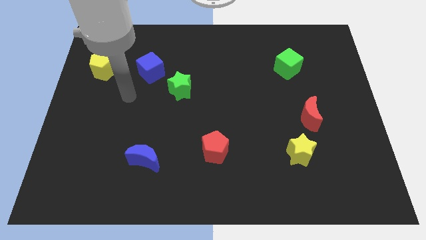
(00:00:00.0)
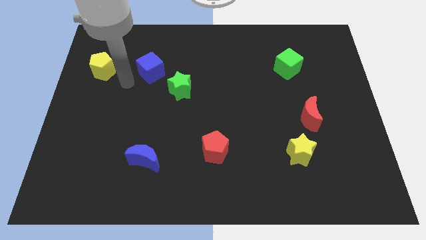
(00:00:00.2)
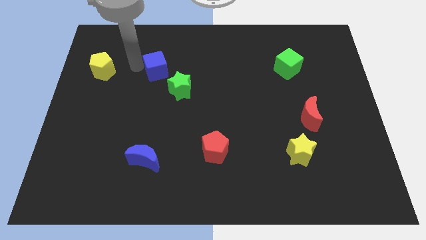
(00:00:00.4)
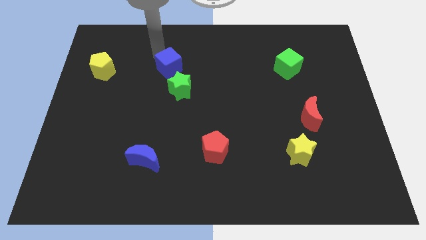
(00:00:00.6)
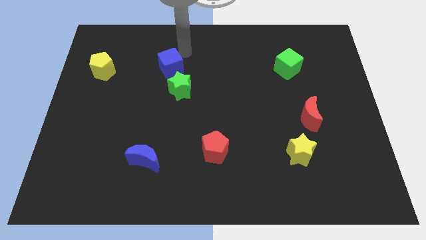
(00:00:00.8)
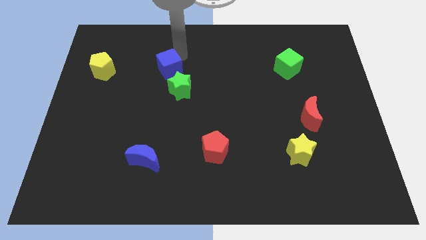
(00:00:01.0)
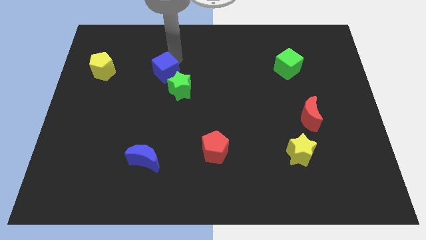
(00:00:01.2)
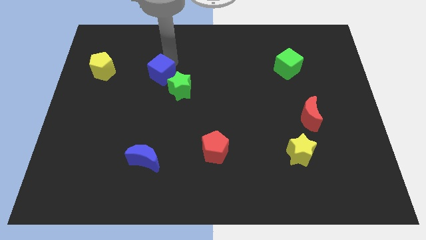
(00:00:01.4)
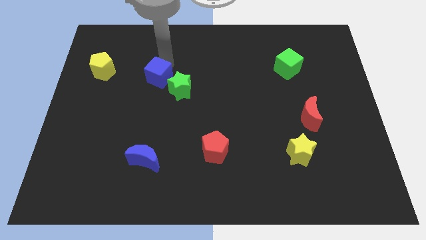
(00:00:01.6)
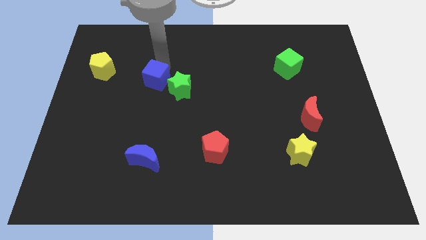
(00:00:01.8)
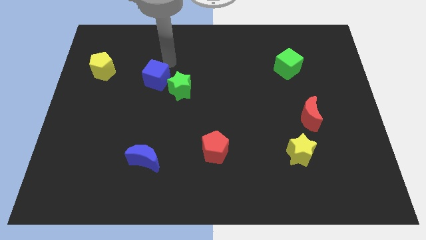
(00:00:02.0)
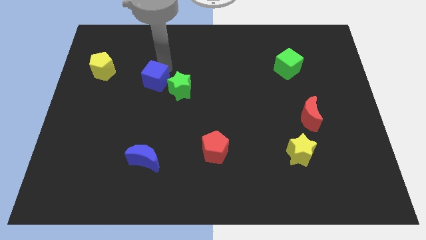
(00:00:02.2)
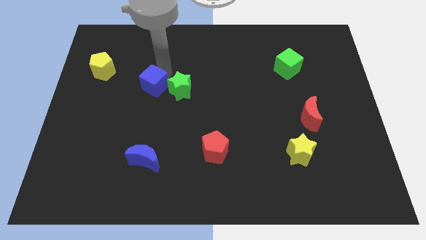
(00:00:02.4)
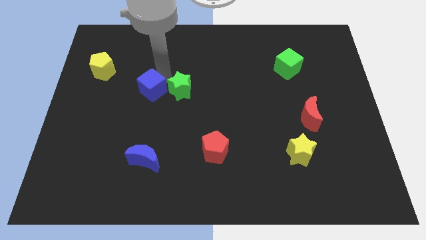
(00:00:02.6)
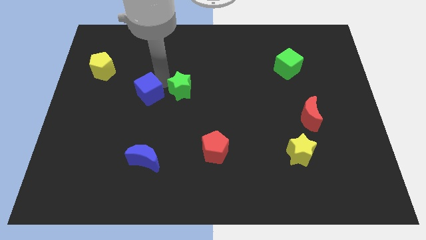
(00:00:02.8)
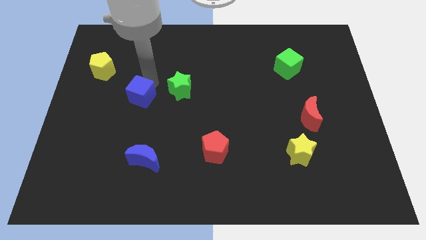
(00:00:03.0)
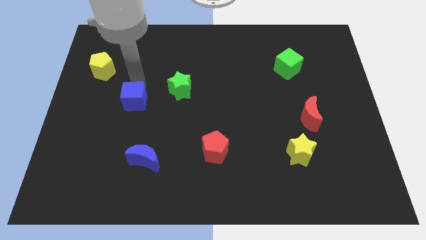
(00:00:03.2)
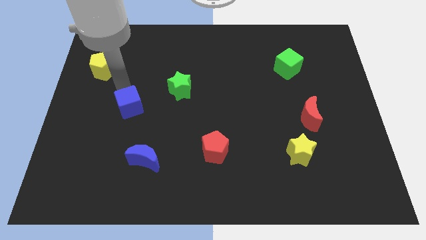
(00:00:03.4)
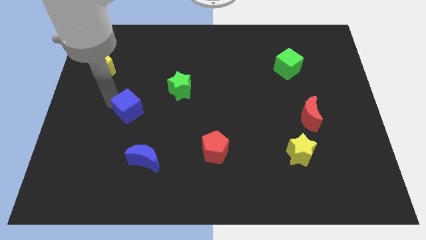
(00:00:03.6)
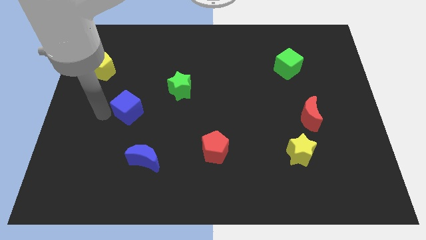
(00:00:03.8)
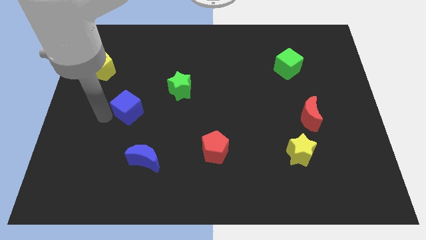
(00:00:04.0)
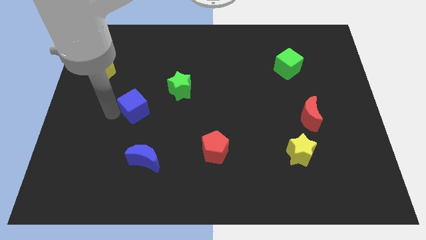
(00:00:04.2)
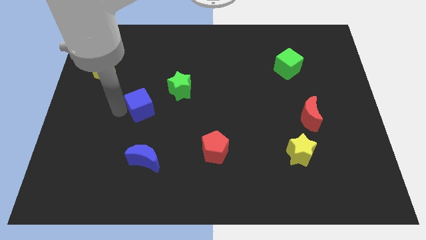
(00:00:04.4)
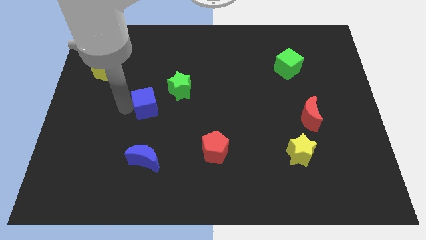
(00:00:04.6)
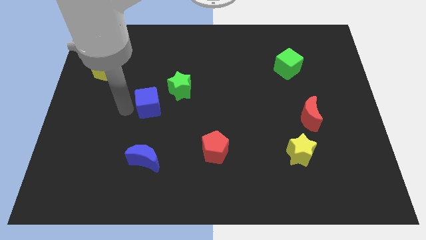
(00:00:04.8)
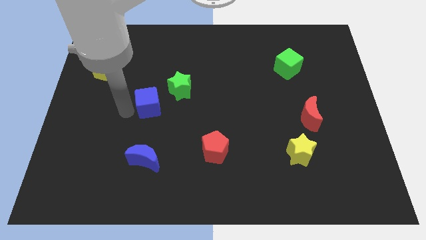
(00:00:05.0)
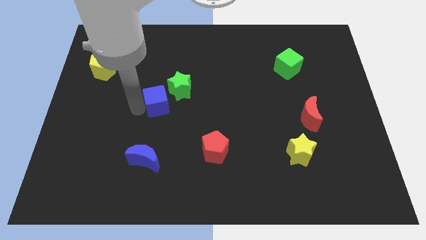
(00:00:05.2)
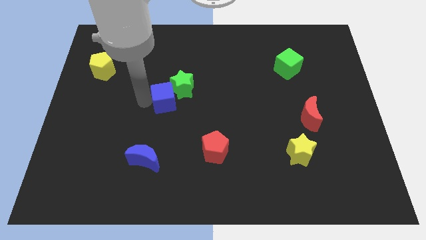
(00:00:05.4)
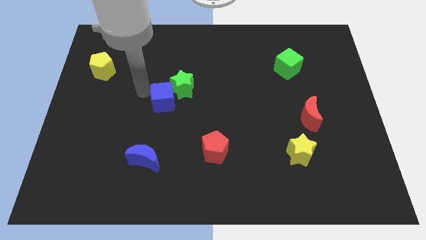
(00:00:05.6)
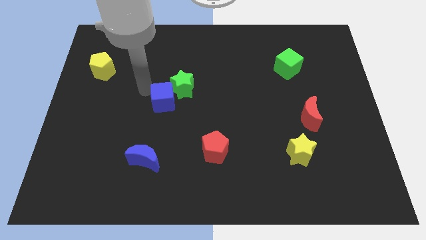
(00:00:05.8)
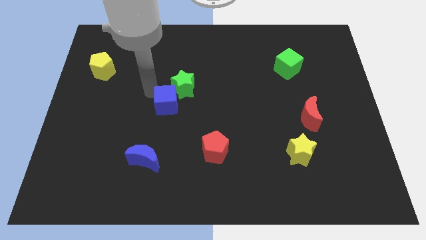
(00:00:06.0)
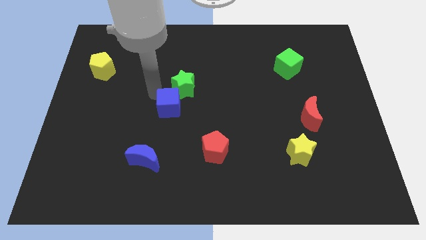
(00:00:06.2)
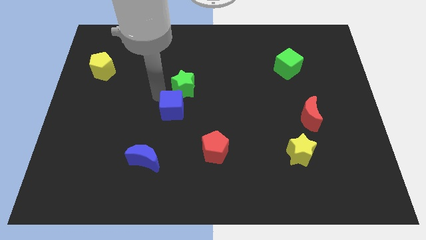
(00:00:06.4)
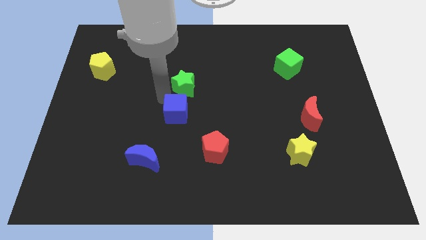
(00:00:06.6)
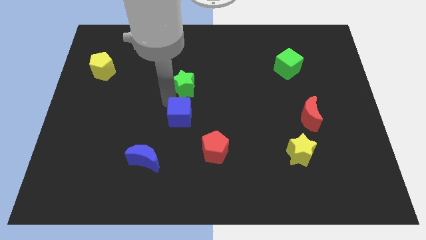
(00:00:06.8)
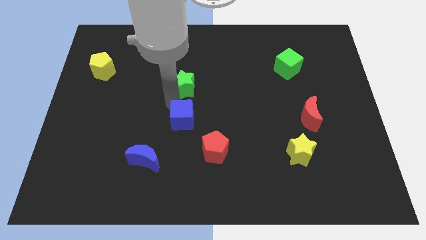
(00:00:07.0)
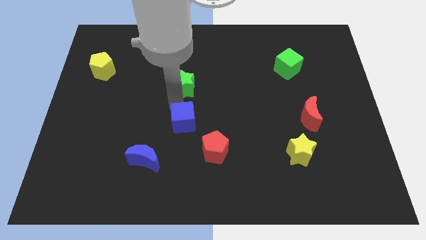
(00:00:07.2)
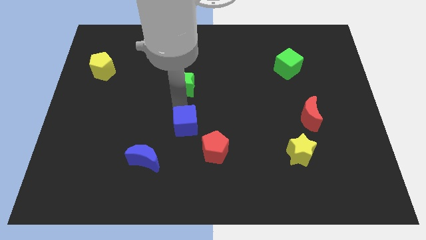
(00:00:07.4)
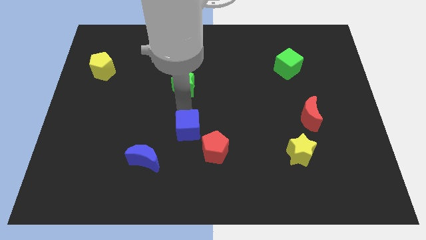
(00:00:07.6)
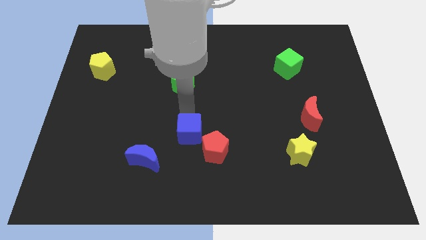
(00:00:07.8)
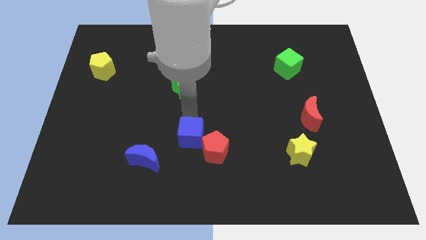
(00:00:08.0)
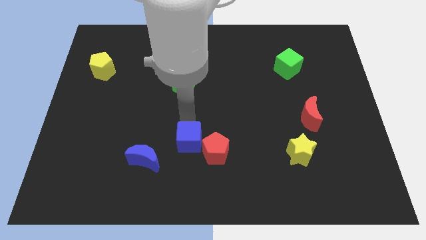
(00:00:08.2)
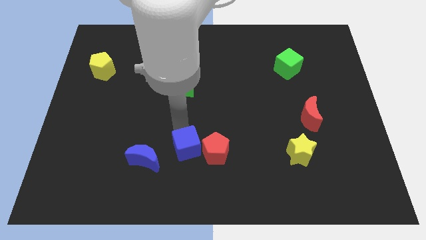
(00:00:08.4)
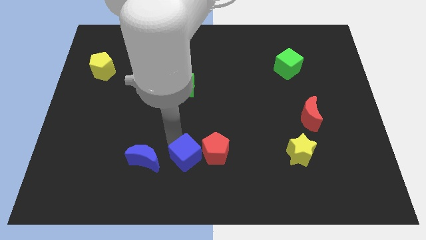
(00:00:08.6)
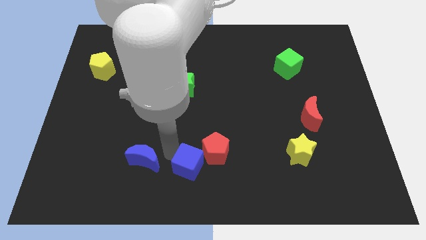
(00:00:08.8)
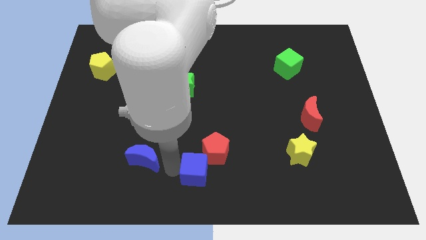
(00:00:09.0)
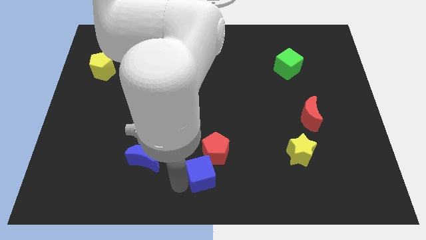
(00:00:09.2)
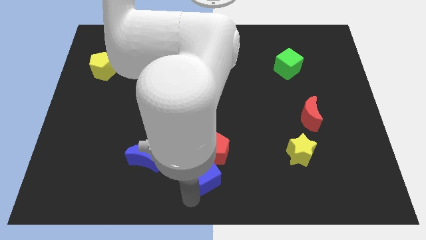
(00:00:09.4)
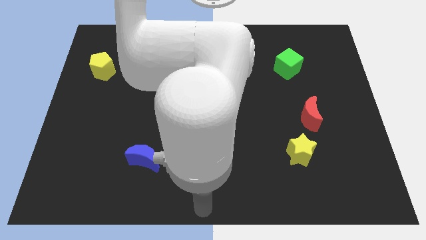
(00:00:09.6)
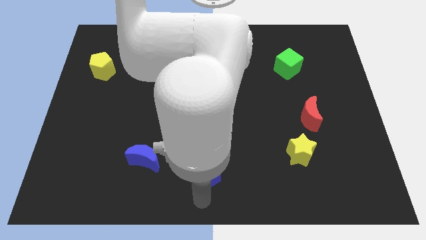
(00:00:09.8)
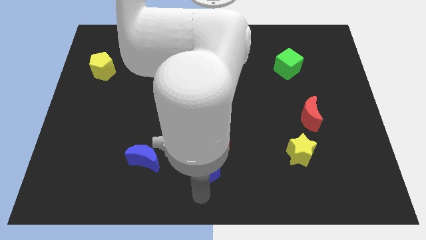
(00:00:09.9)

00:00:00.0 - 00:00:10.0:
put the blue cube next to the red pentagon

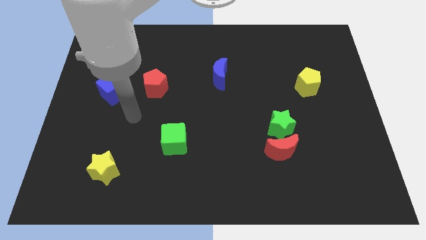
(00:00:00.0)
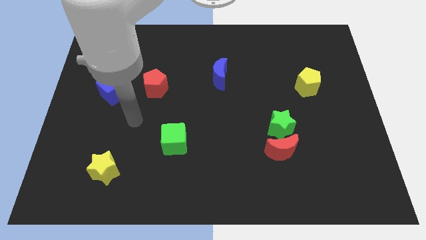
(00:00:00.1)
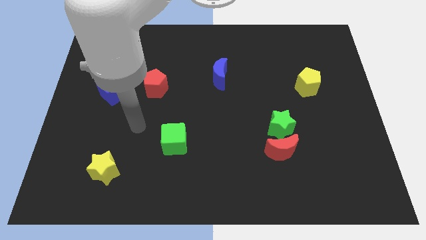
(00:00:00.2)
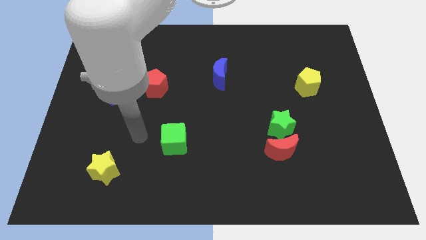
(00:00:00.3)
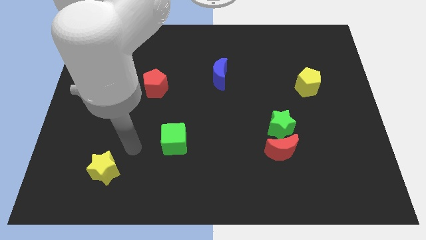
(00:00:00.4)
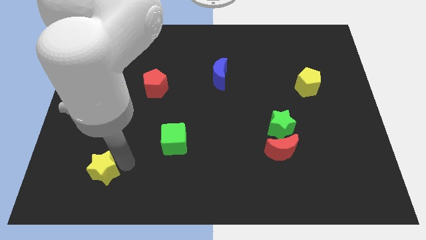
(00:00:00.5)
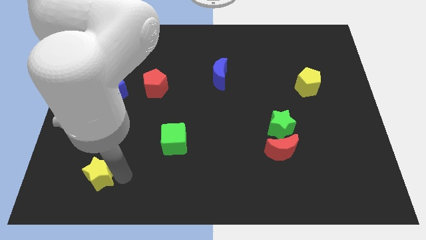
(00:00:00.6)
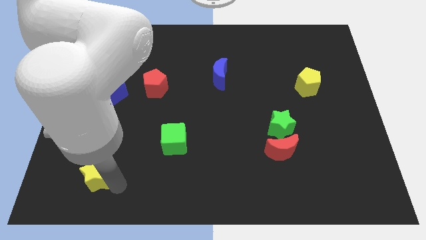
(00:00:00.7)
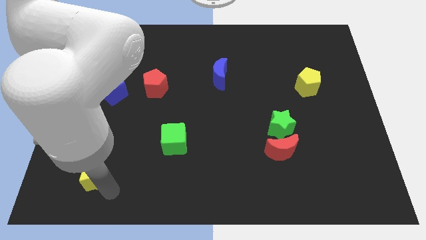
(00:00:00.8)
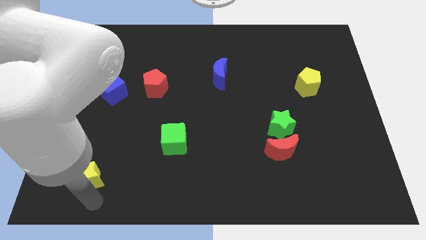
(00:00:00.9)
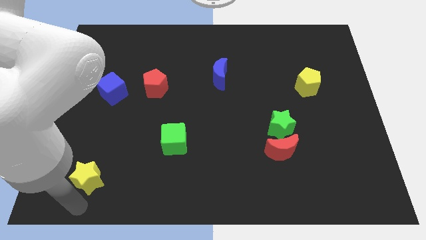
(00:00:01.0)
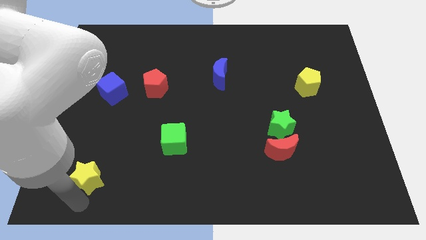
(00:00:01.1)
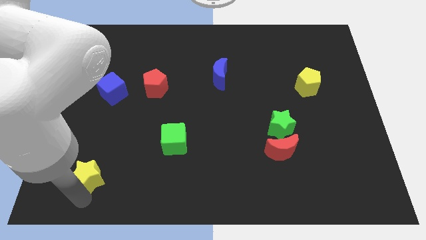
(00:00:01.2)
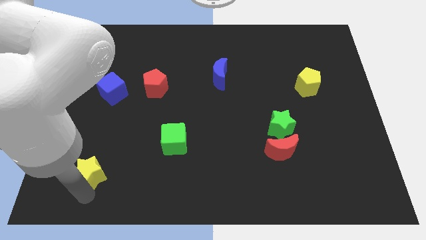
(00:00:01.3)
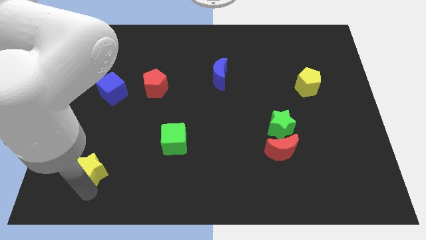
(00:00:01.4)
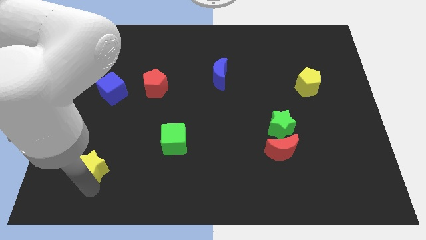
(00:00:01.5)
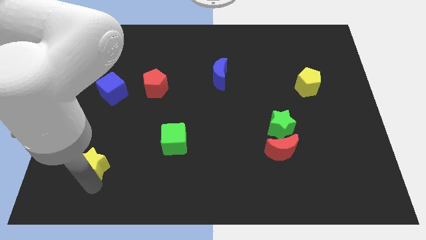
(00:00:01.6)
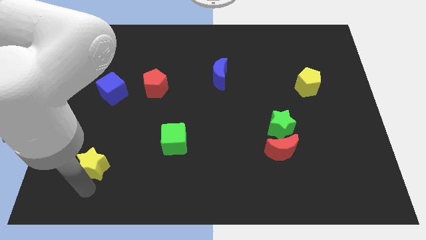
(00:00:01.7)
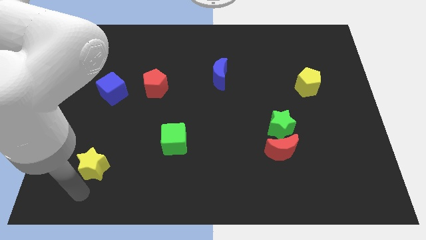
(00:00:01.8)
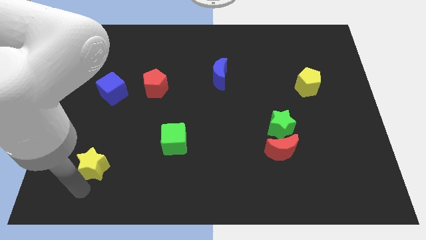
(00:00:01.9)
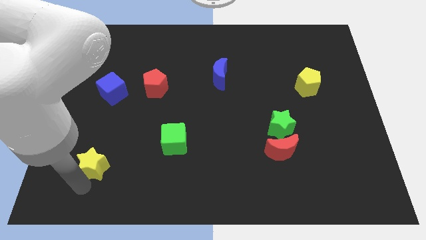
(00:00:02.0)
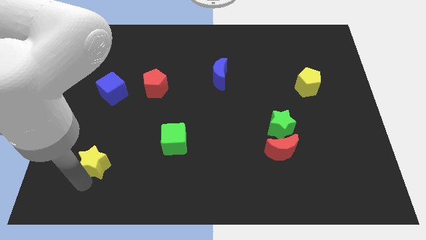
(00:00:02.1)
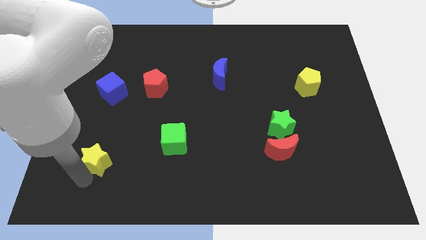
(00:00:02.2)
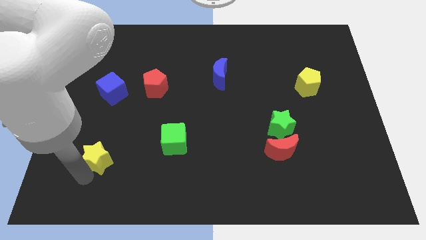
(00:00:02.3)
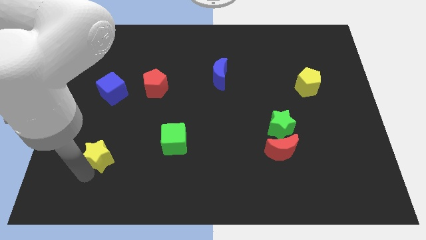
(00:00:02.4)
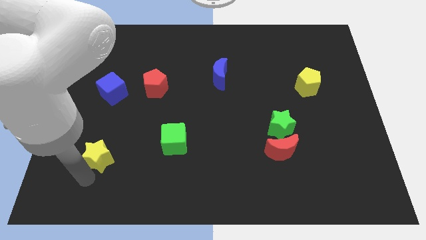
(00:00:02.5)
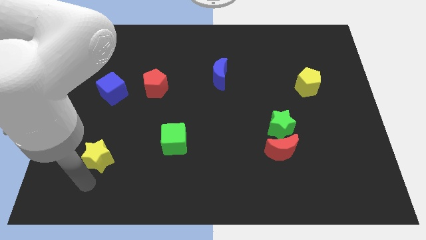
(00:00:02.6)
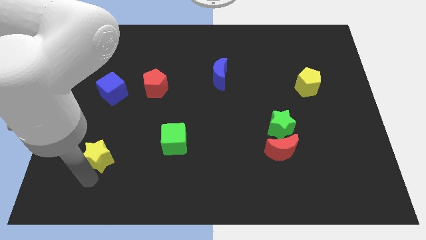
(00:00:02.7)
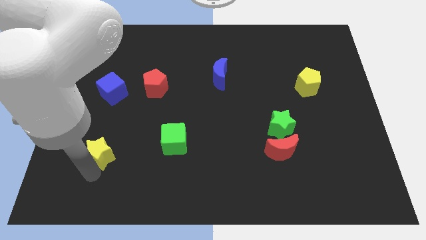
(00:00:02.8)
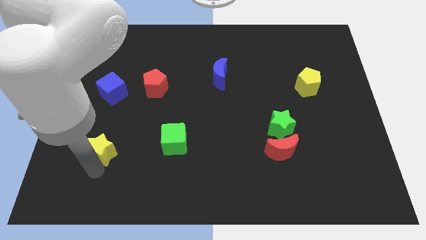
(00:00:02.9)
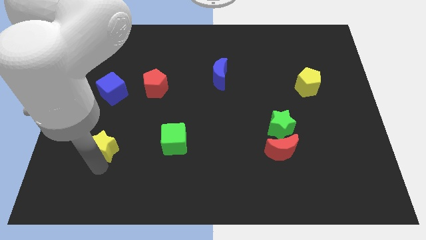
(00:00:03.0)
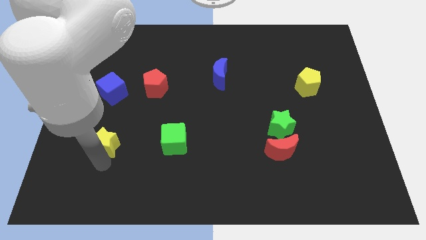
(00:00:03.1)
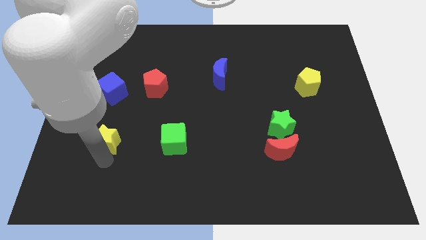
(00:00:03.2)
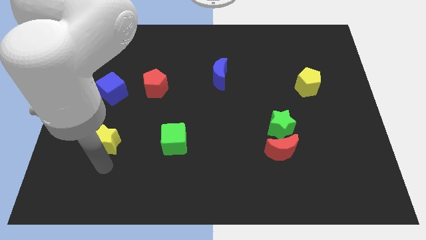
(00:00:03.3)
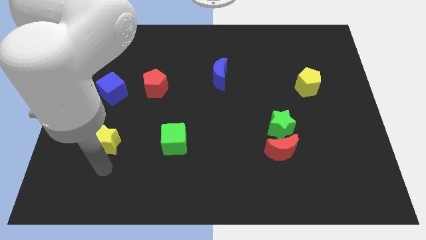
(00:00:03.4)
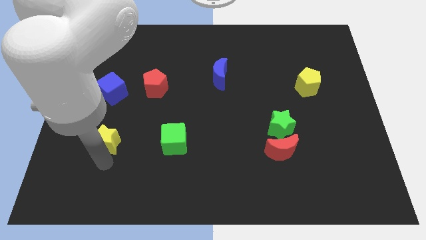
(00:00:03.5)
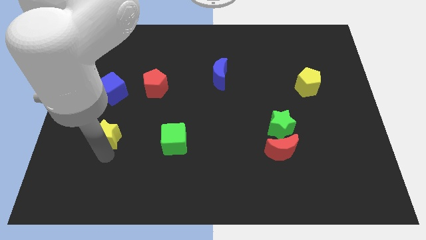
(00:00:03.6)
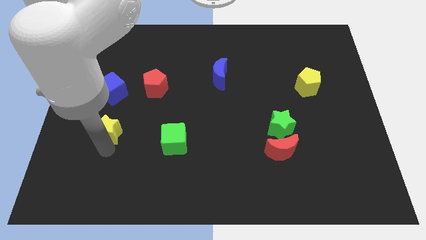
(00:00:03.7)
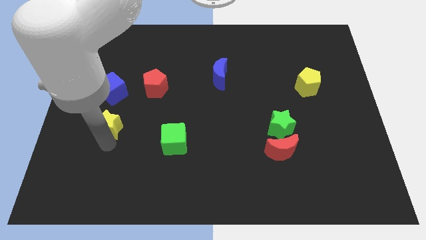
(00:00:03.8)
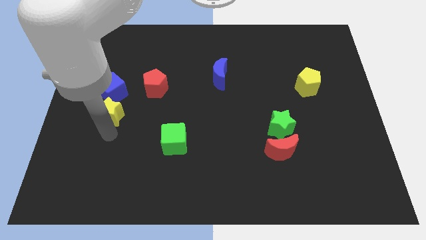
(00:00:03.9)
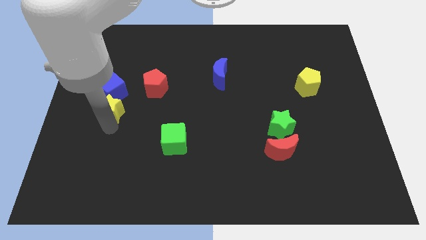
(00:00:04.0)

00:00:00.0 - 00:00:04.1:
put the yellow star next to the blue cube
